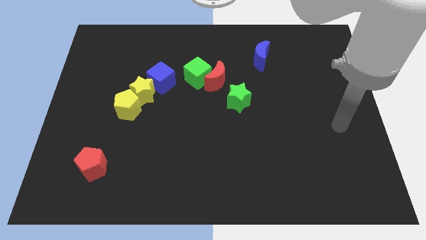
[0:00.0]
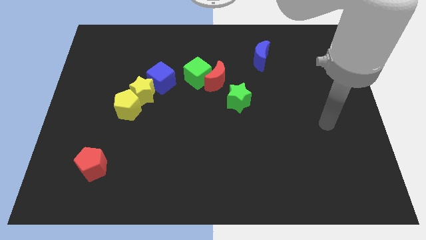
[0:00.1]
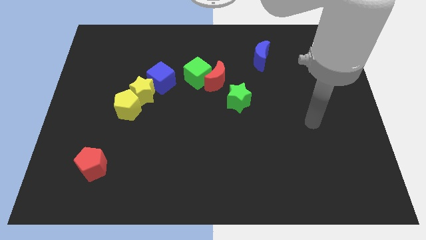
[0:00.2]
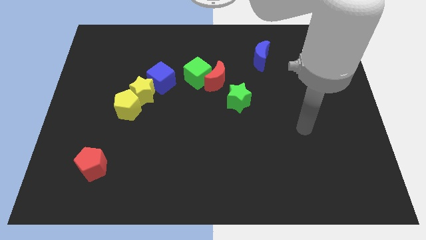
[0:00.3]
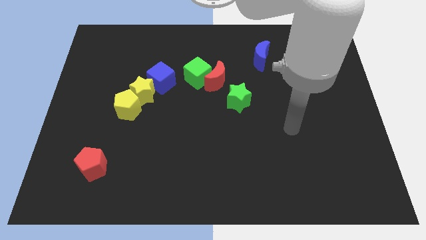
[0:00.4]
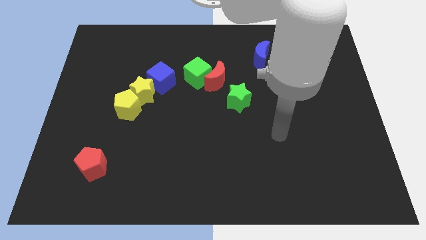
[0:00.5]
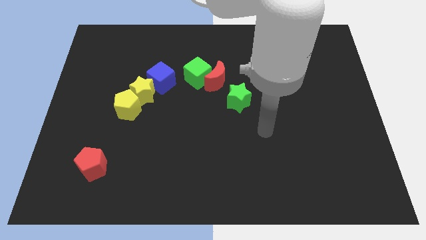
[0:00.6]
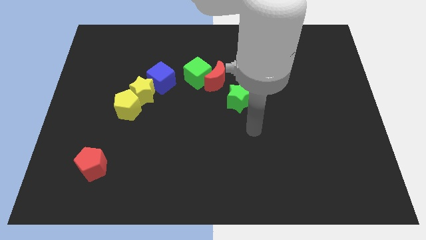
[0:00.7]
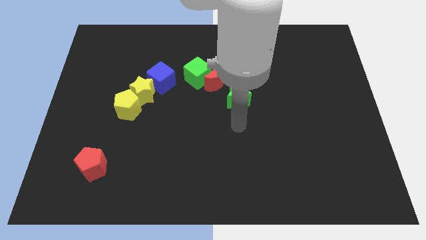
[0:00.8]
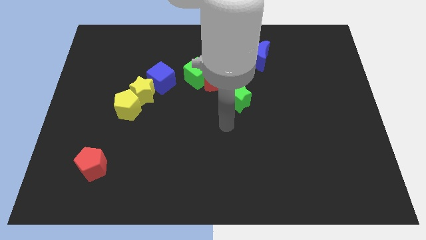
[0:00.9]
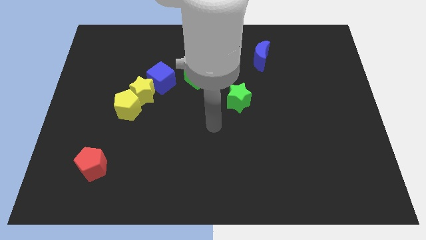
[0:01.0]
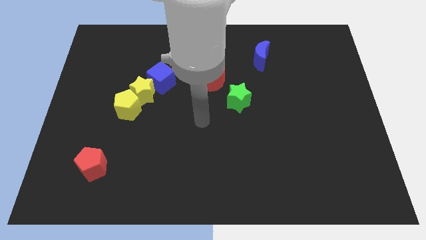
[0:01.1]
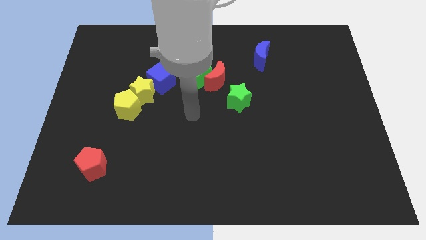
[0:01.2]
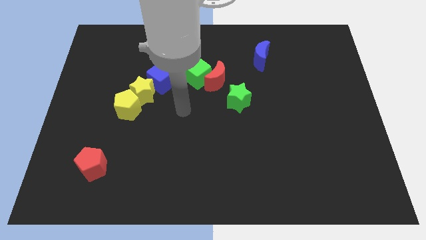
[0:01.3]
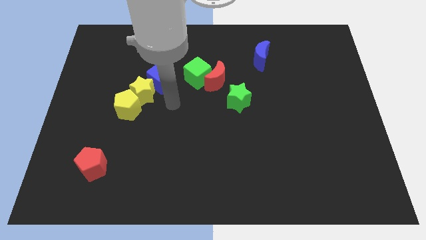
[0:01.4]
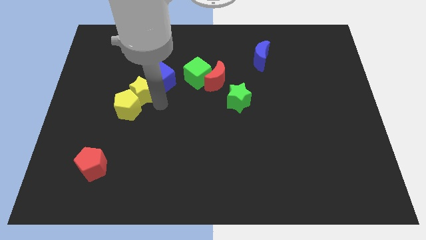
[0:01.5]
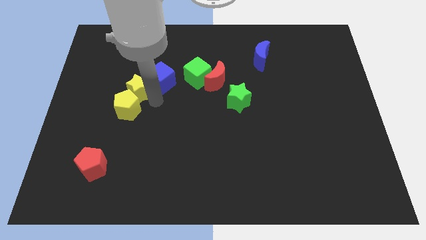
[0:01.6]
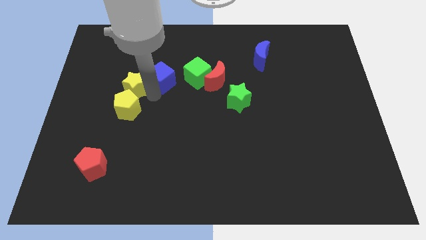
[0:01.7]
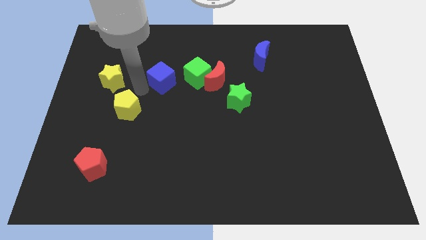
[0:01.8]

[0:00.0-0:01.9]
separate the yellow pentagon from the yellow star

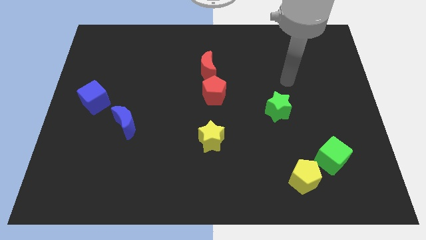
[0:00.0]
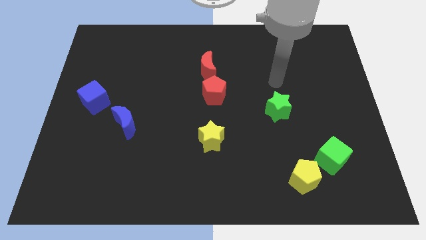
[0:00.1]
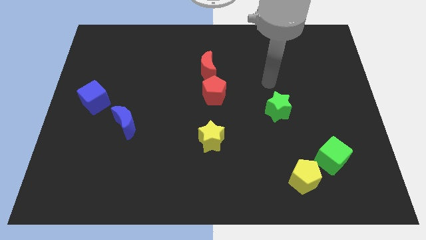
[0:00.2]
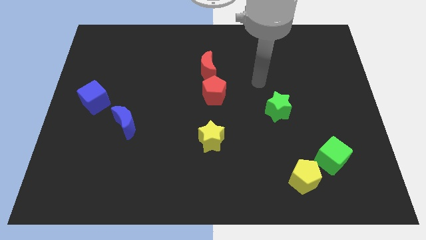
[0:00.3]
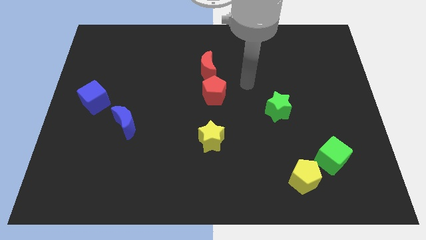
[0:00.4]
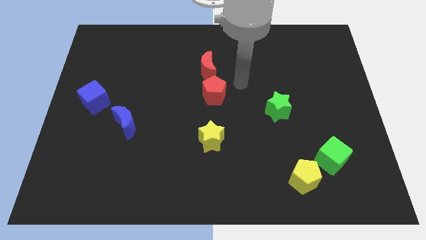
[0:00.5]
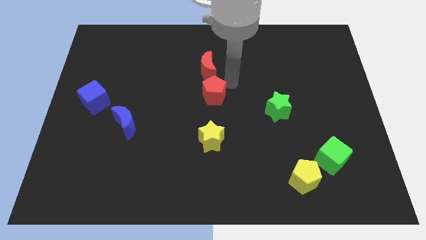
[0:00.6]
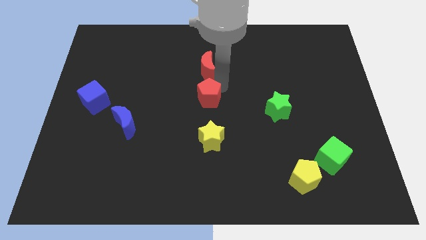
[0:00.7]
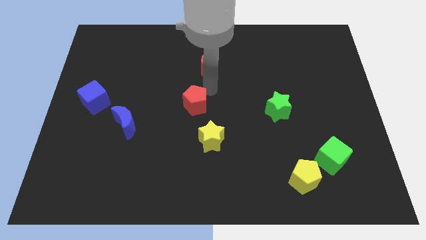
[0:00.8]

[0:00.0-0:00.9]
move the red moon away from the red pentagon

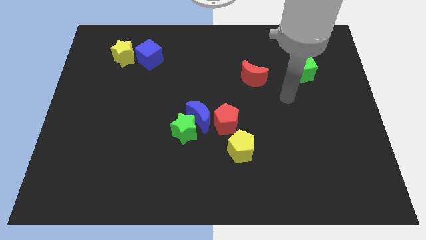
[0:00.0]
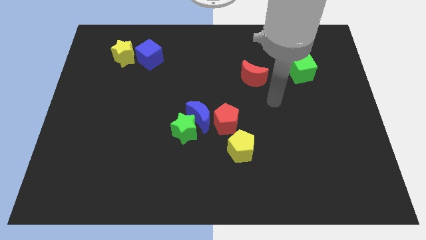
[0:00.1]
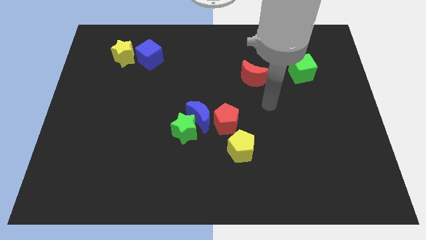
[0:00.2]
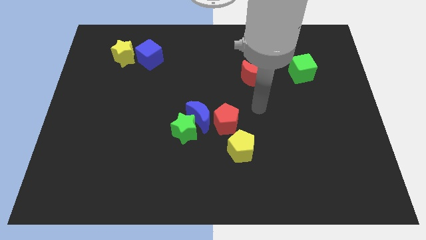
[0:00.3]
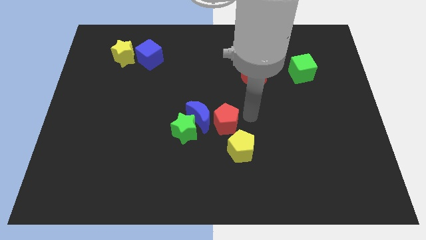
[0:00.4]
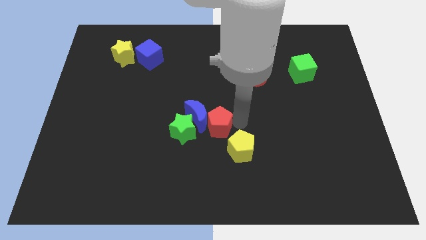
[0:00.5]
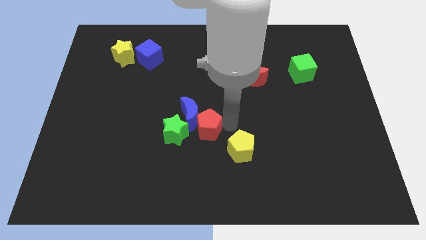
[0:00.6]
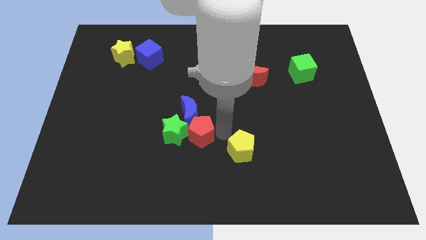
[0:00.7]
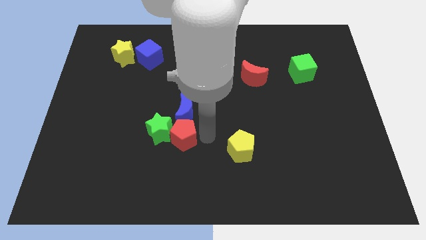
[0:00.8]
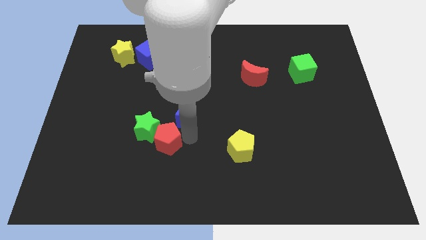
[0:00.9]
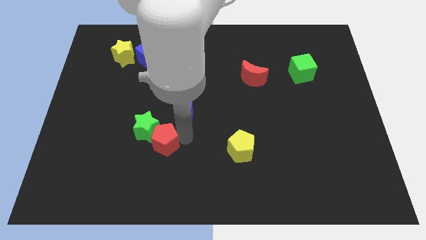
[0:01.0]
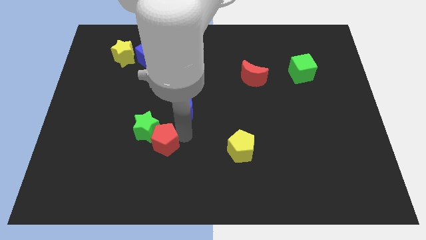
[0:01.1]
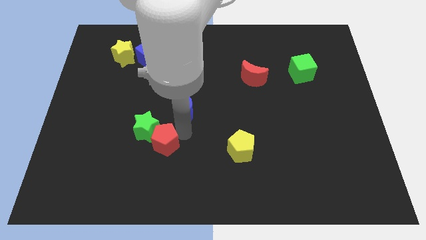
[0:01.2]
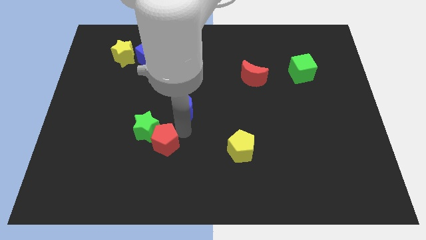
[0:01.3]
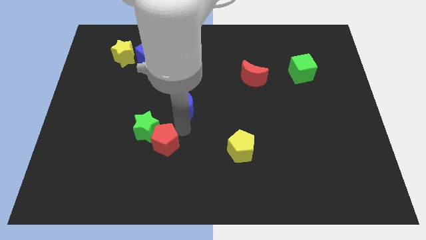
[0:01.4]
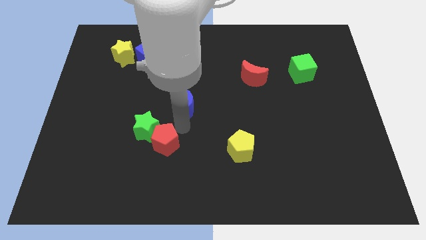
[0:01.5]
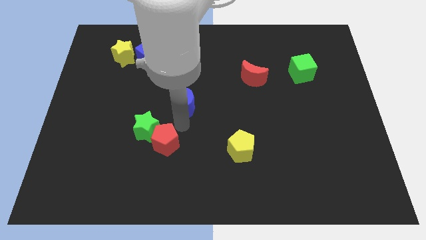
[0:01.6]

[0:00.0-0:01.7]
pull the blue moon apart from the green star and red pentagon

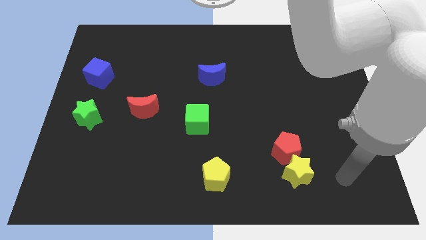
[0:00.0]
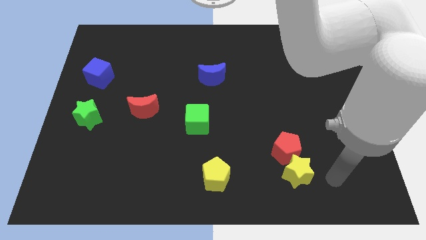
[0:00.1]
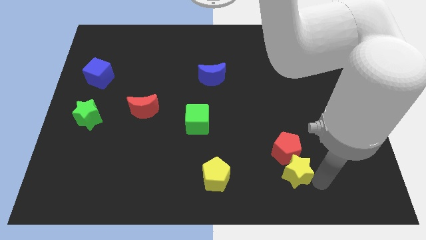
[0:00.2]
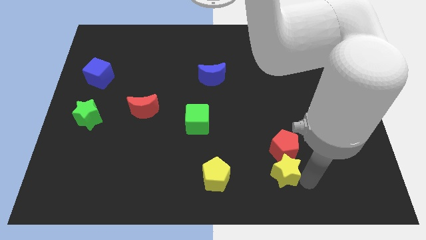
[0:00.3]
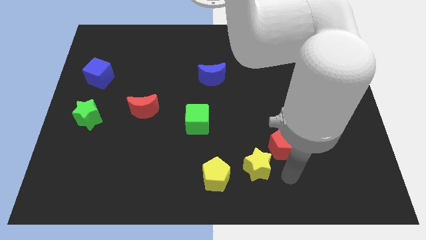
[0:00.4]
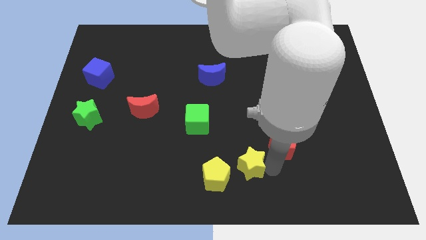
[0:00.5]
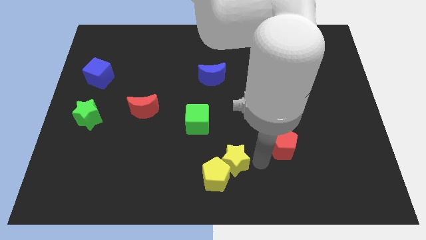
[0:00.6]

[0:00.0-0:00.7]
move the red pentagon away from the yellow star

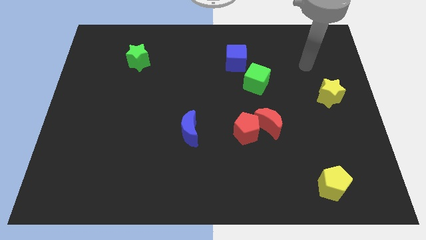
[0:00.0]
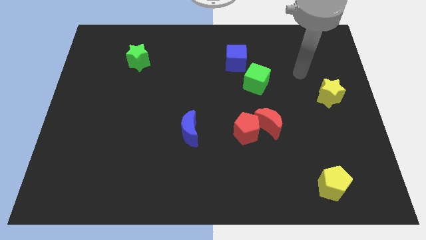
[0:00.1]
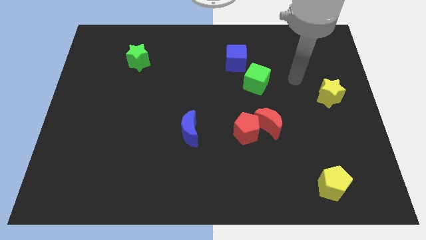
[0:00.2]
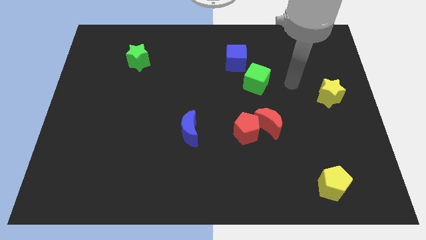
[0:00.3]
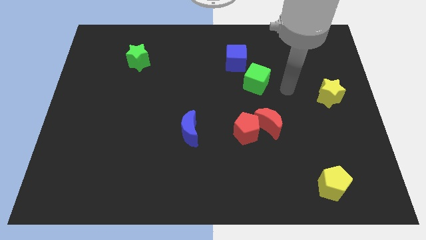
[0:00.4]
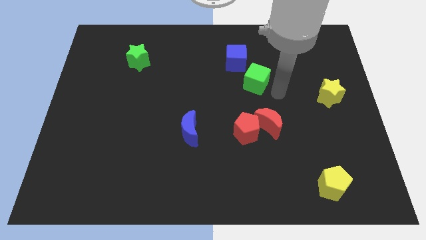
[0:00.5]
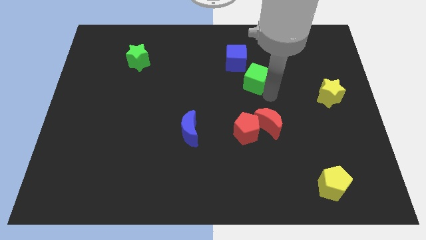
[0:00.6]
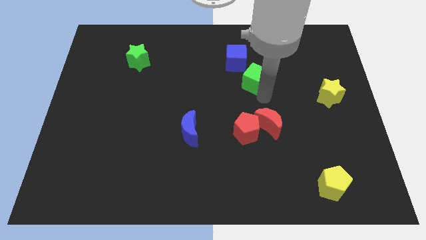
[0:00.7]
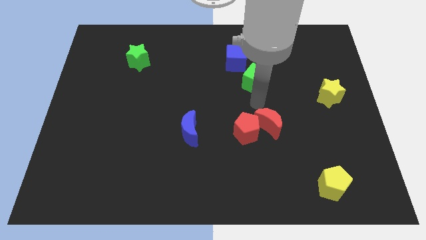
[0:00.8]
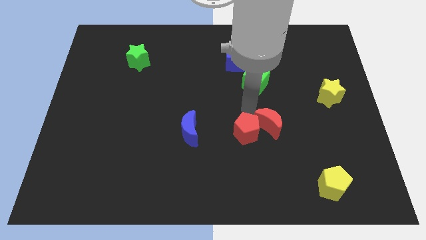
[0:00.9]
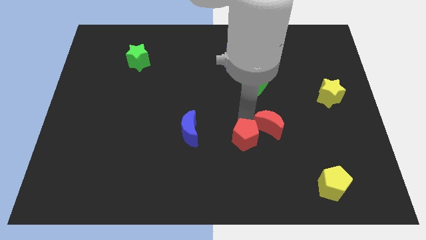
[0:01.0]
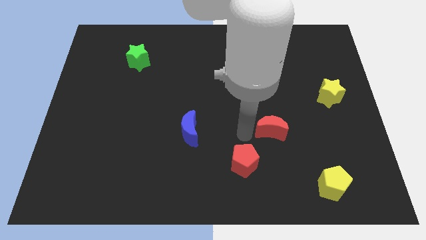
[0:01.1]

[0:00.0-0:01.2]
pull the red moon apart from the red pentagon

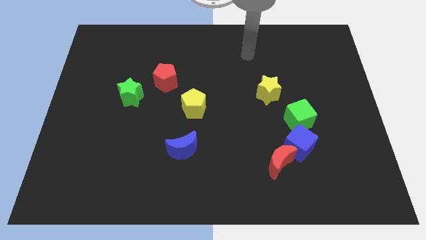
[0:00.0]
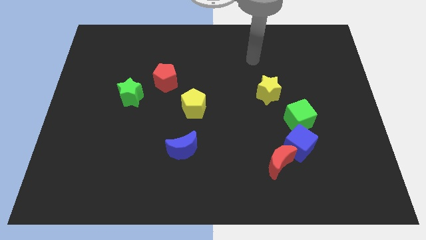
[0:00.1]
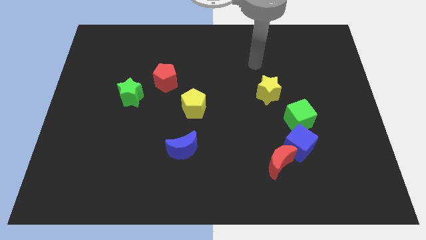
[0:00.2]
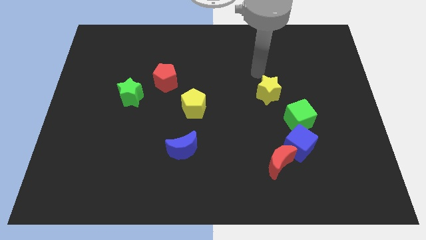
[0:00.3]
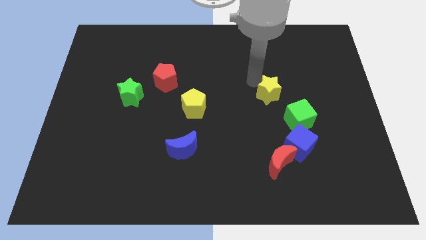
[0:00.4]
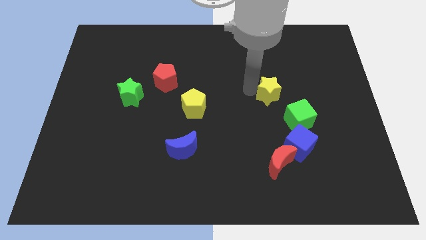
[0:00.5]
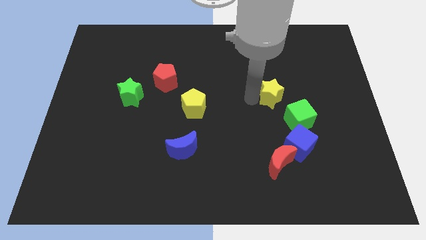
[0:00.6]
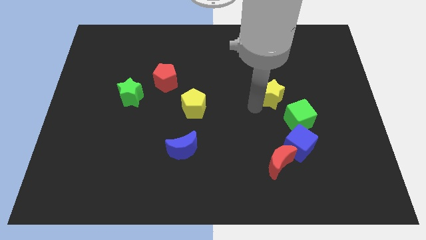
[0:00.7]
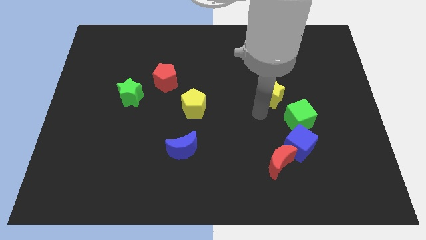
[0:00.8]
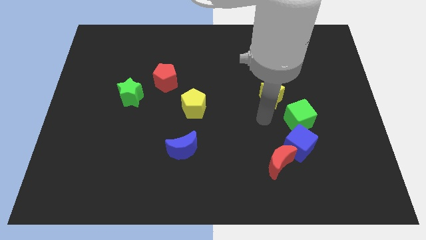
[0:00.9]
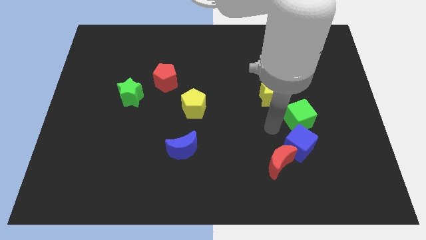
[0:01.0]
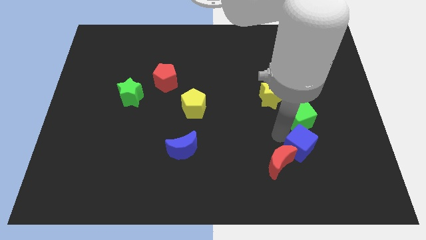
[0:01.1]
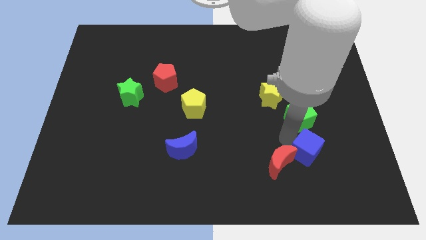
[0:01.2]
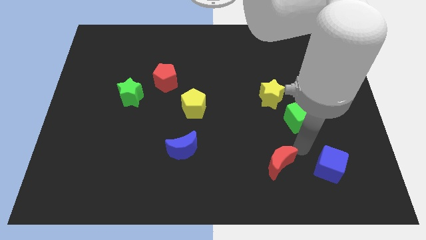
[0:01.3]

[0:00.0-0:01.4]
separate the red moon from the blue cube

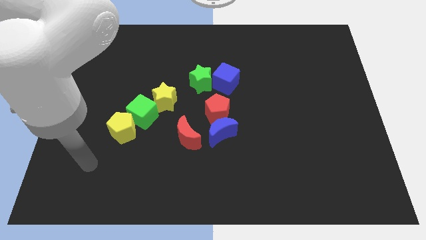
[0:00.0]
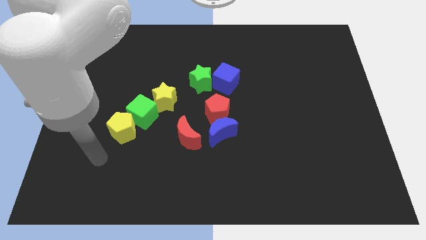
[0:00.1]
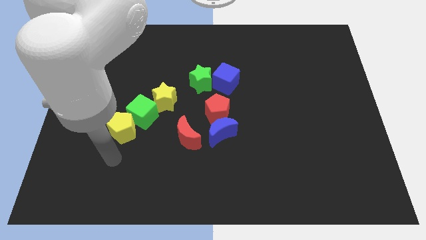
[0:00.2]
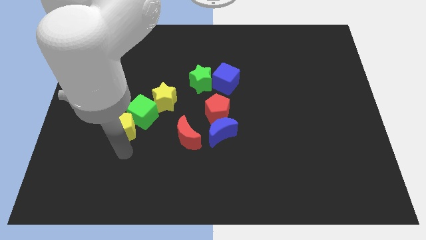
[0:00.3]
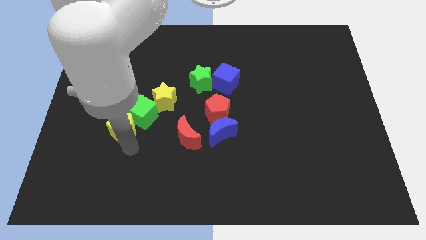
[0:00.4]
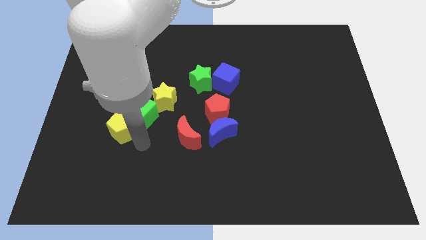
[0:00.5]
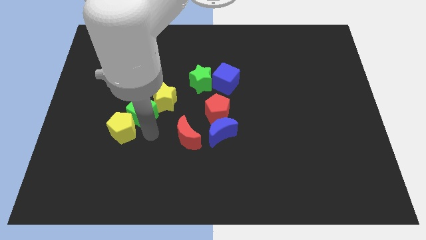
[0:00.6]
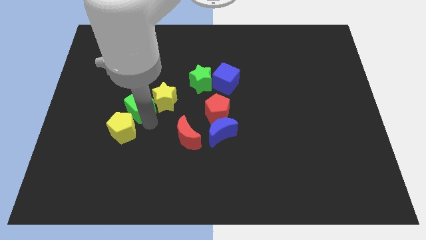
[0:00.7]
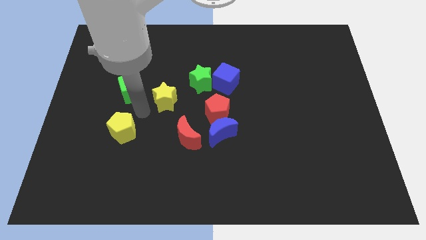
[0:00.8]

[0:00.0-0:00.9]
pull the yellow pentagon apart from the green cube

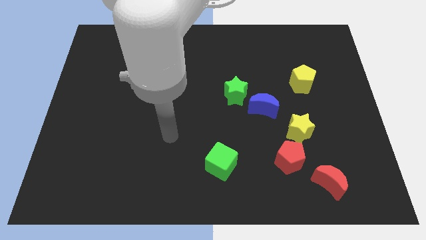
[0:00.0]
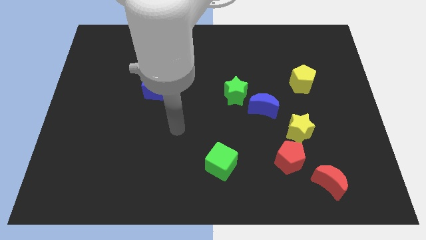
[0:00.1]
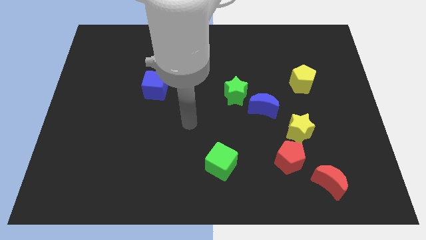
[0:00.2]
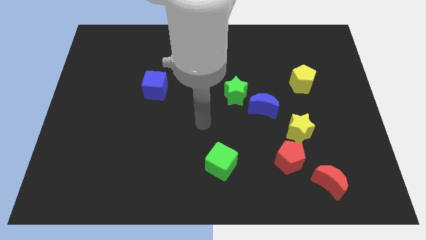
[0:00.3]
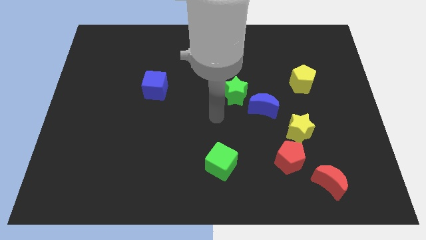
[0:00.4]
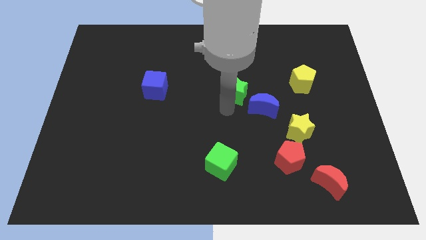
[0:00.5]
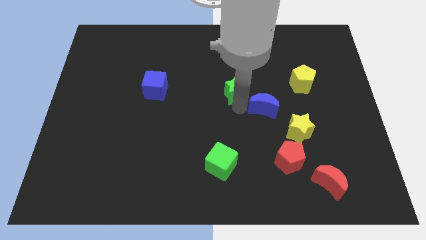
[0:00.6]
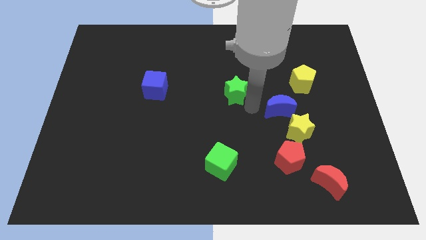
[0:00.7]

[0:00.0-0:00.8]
separate the green star from the blue moon
